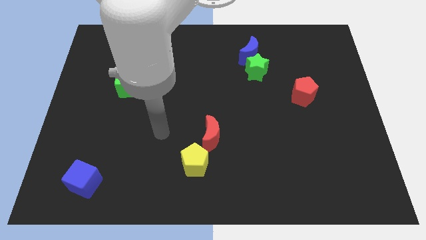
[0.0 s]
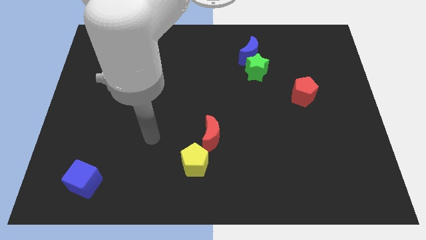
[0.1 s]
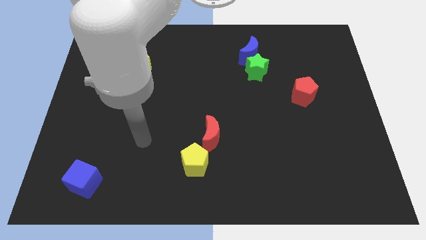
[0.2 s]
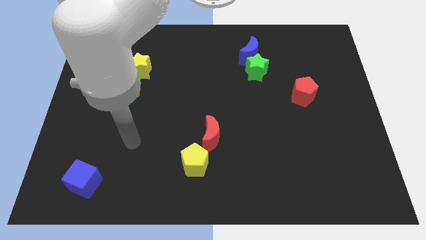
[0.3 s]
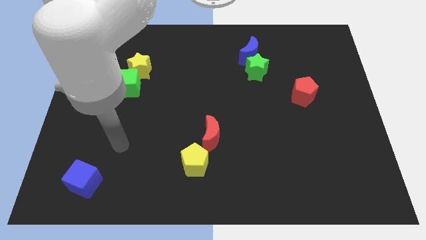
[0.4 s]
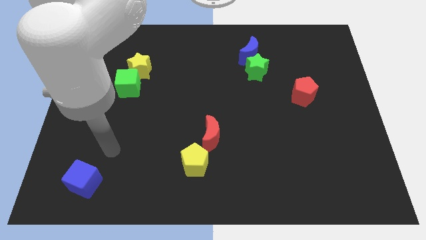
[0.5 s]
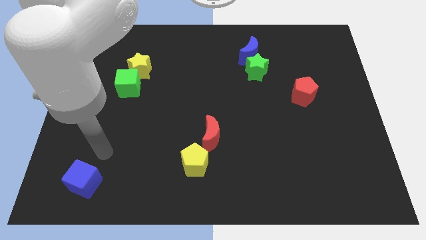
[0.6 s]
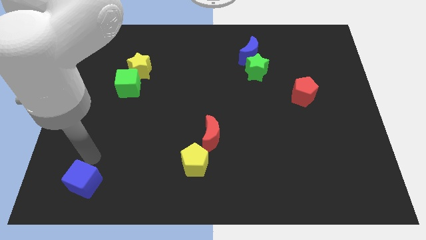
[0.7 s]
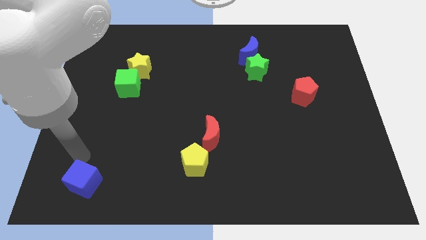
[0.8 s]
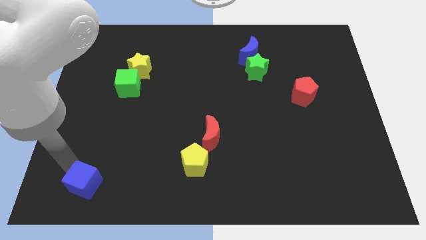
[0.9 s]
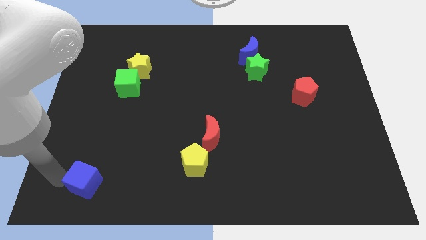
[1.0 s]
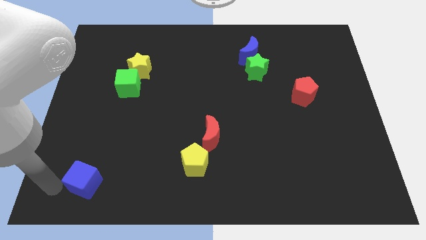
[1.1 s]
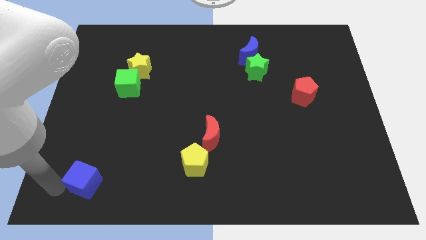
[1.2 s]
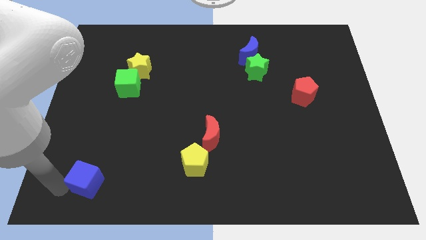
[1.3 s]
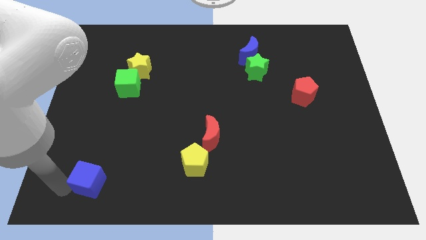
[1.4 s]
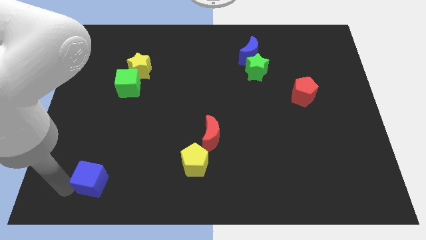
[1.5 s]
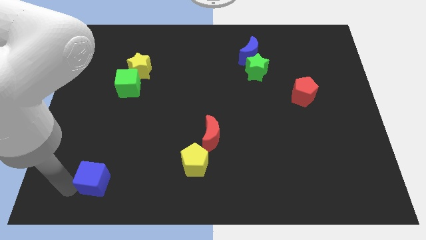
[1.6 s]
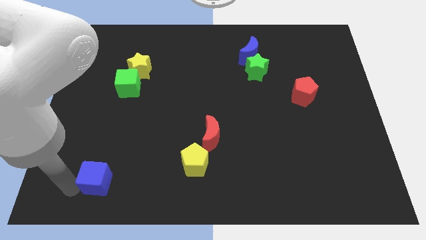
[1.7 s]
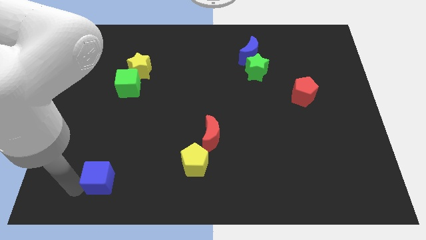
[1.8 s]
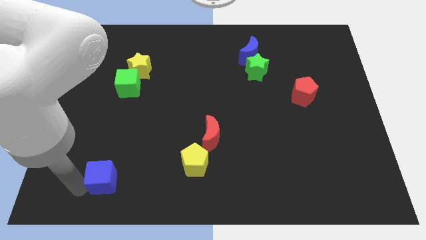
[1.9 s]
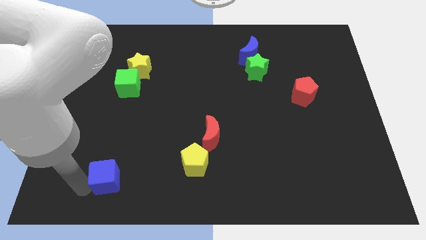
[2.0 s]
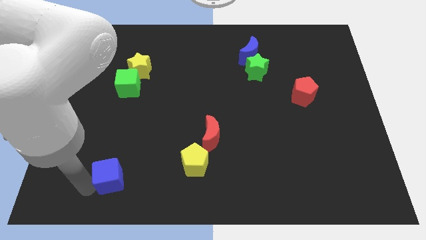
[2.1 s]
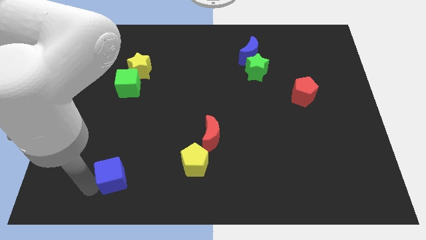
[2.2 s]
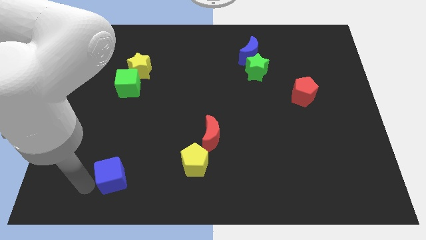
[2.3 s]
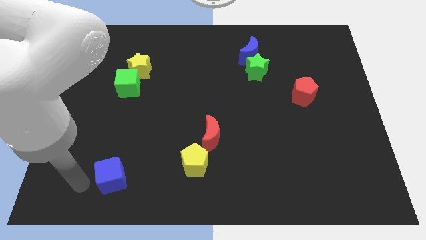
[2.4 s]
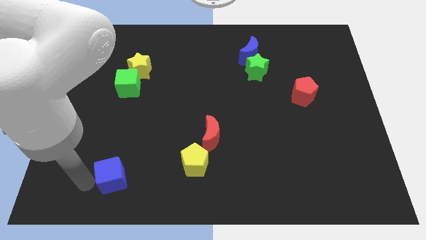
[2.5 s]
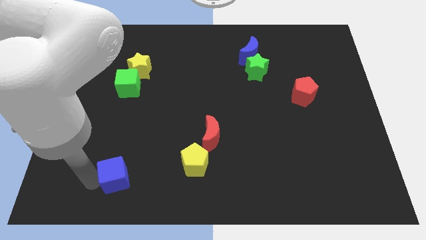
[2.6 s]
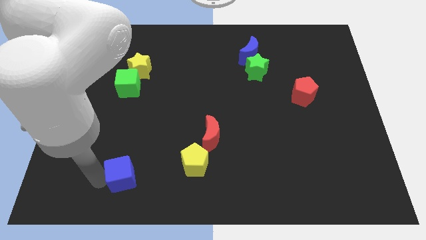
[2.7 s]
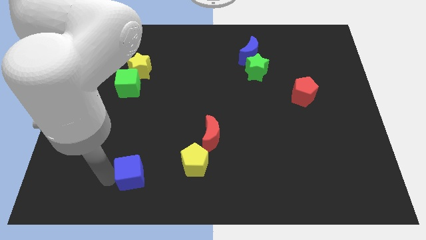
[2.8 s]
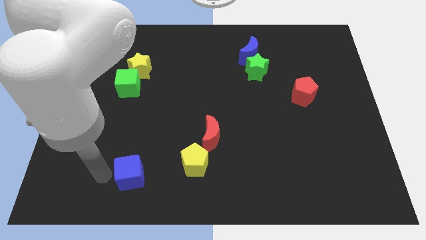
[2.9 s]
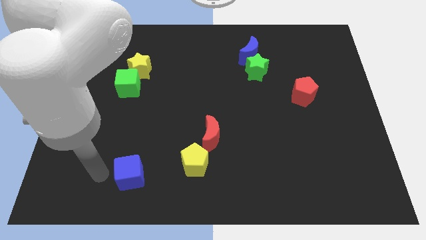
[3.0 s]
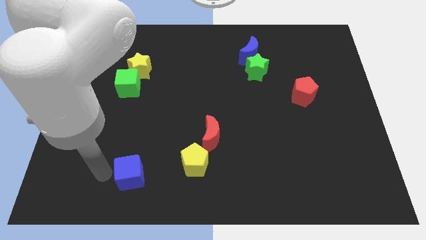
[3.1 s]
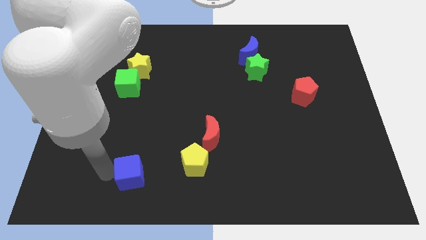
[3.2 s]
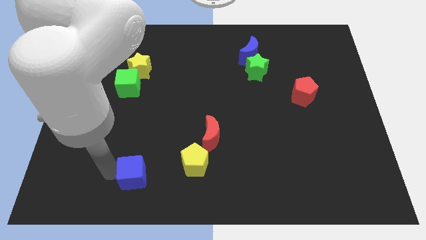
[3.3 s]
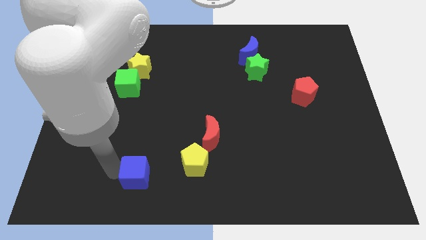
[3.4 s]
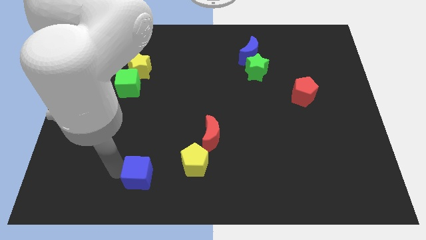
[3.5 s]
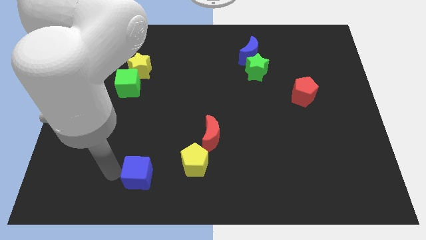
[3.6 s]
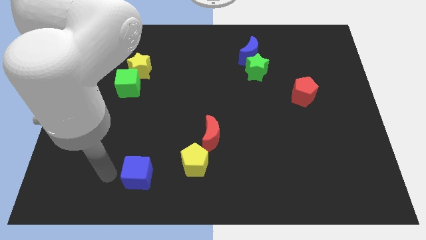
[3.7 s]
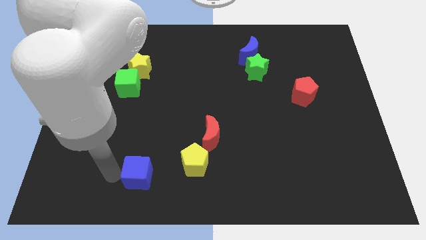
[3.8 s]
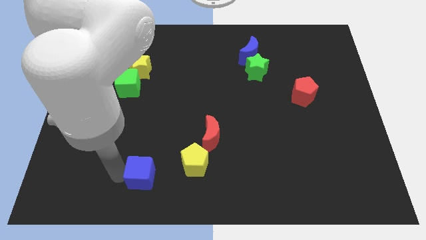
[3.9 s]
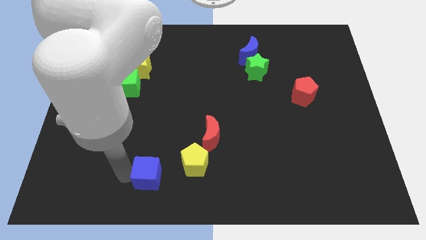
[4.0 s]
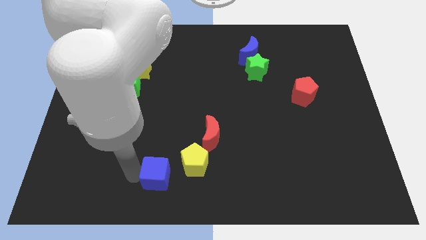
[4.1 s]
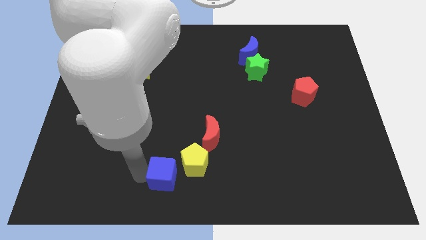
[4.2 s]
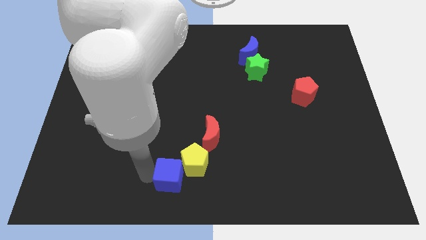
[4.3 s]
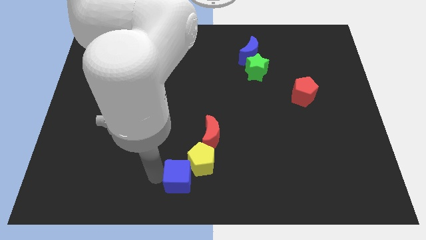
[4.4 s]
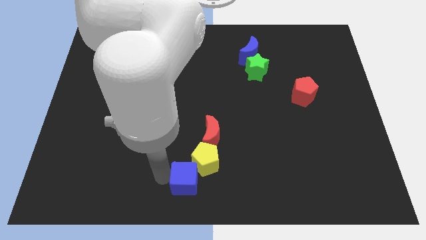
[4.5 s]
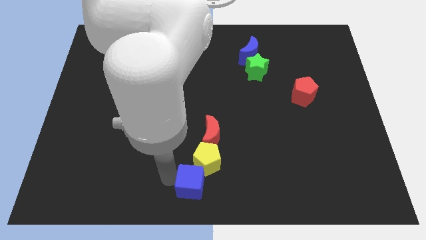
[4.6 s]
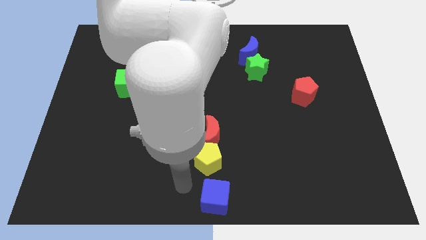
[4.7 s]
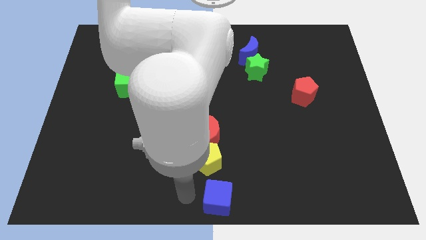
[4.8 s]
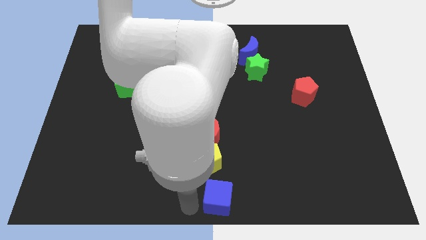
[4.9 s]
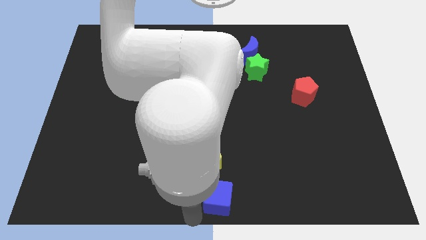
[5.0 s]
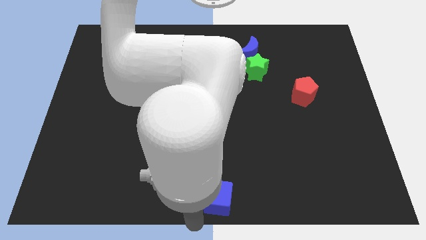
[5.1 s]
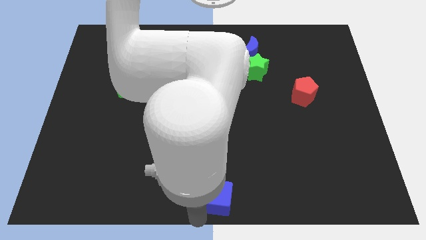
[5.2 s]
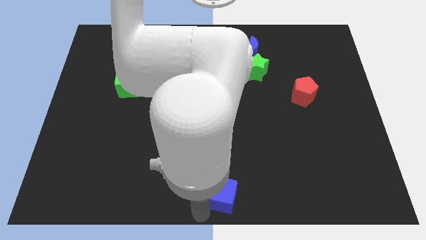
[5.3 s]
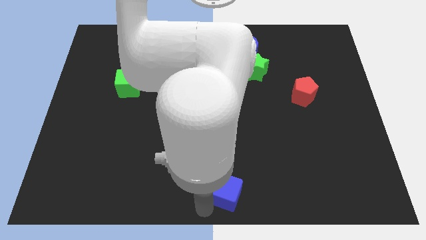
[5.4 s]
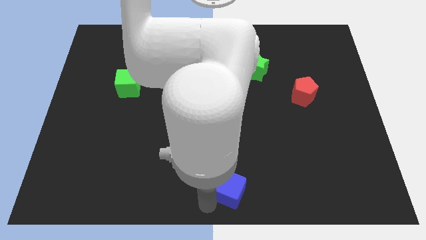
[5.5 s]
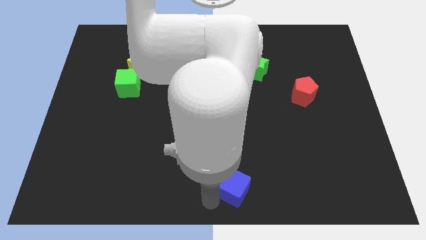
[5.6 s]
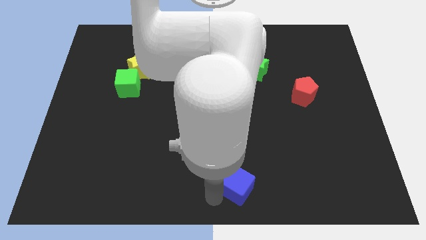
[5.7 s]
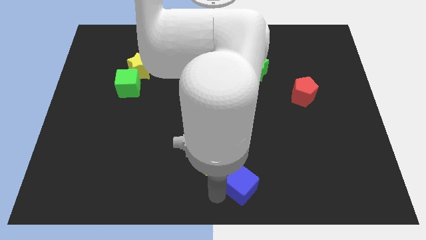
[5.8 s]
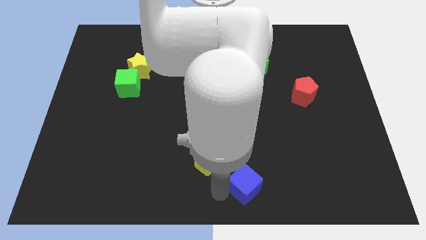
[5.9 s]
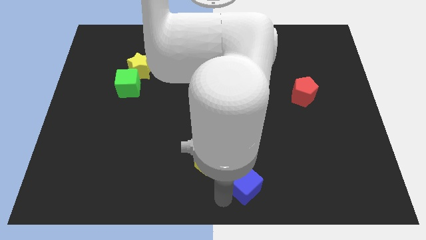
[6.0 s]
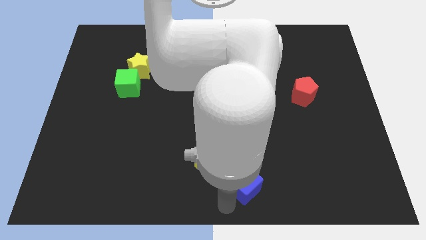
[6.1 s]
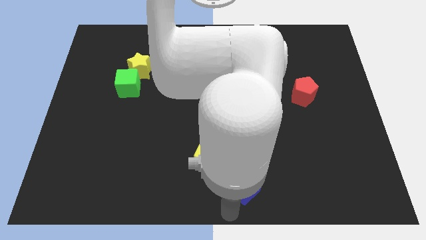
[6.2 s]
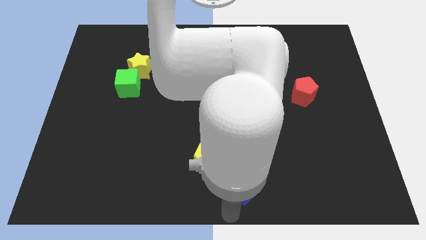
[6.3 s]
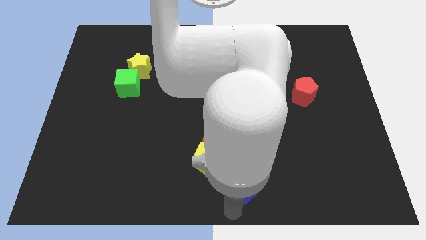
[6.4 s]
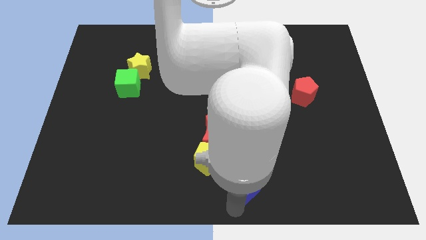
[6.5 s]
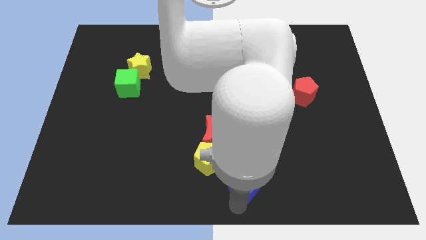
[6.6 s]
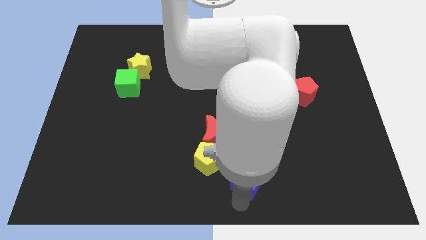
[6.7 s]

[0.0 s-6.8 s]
slide the blue cube to the right side of the yellow pentagon

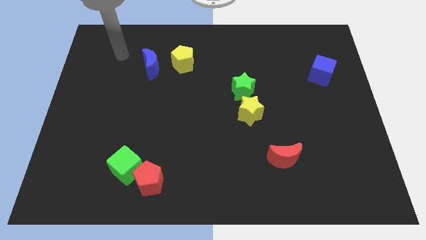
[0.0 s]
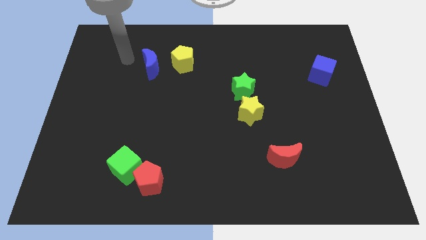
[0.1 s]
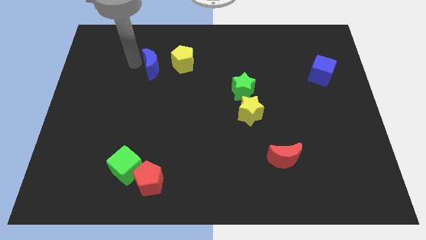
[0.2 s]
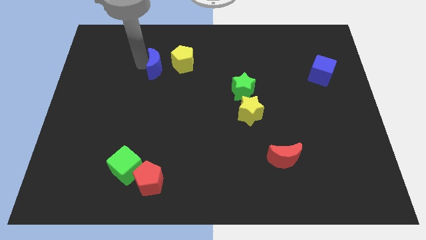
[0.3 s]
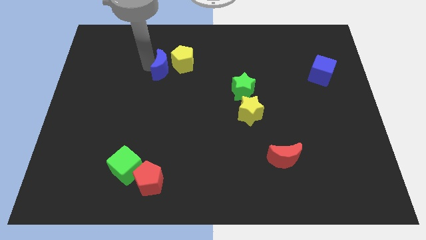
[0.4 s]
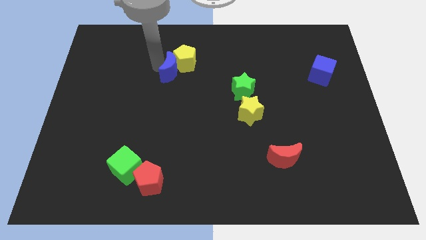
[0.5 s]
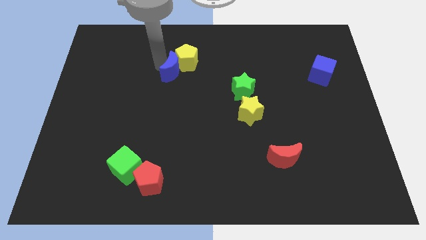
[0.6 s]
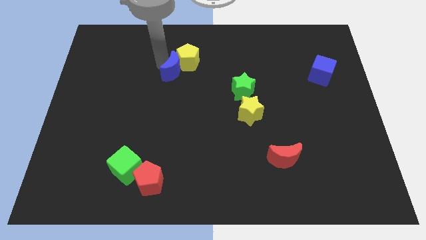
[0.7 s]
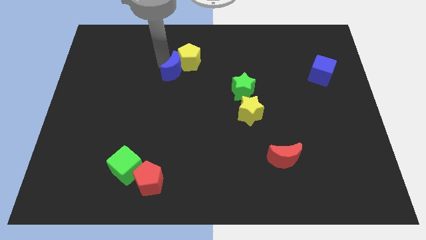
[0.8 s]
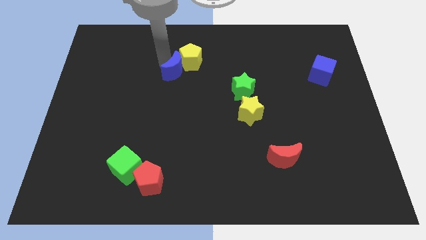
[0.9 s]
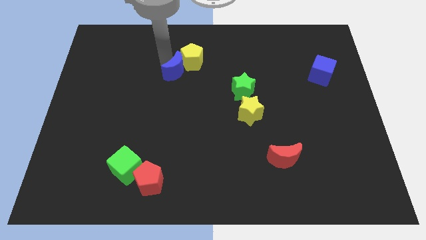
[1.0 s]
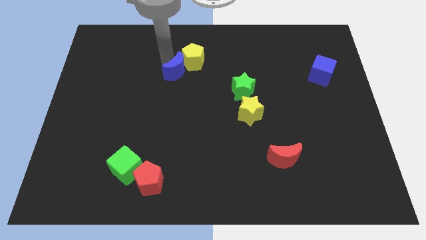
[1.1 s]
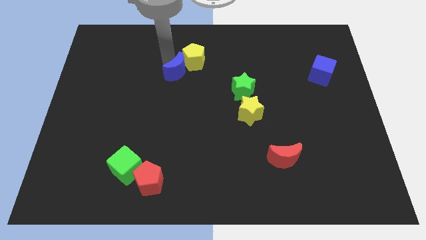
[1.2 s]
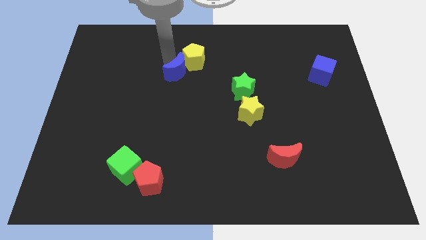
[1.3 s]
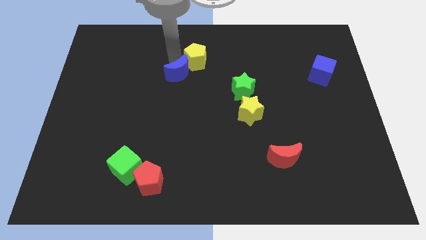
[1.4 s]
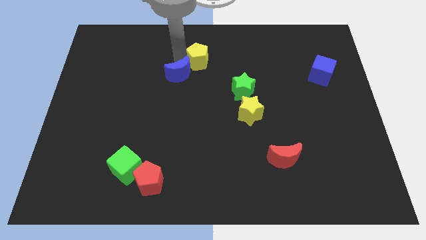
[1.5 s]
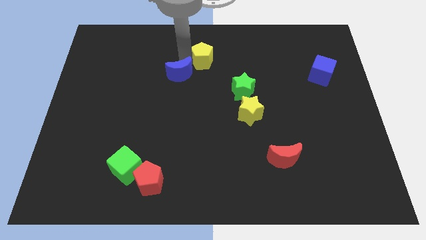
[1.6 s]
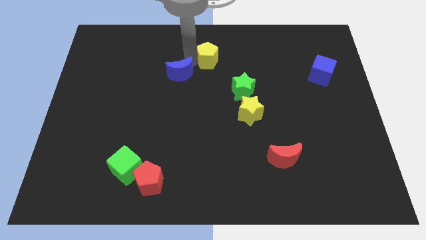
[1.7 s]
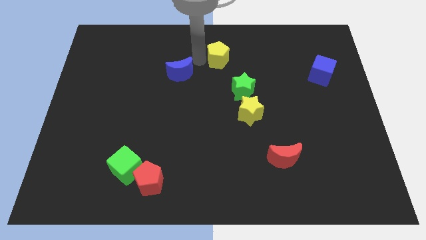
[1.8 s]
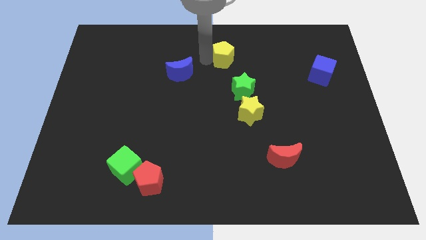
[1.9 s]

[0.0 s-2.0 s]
slide the yellow pentagon to the top side of the green star
